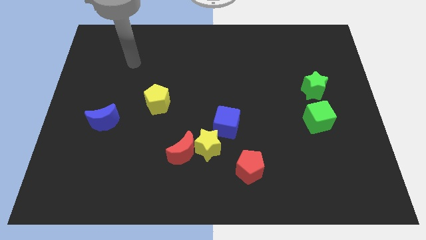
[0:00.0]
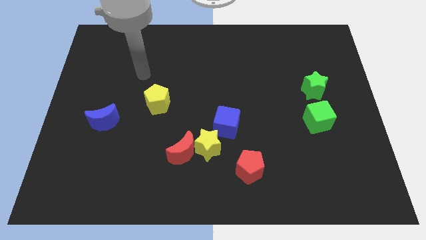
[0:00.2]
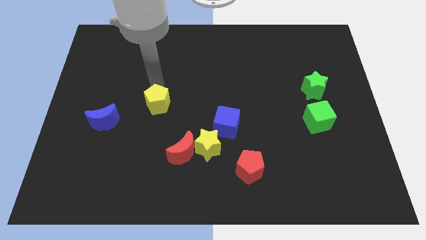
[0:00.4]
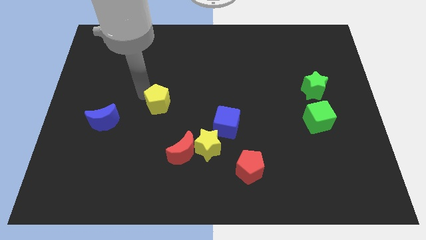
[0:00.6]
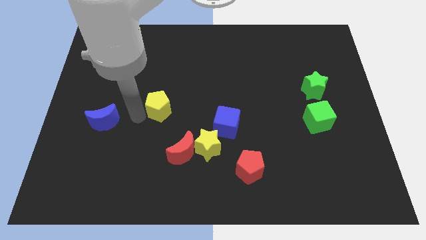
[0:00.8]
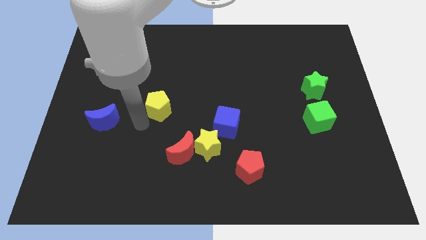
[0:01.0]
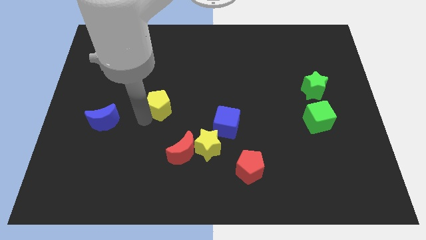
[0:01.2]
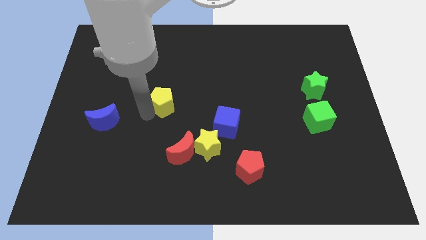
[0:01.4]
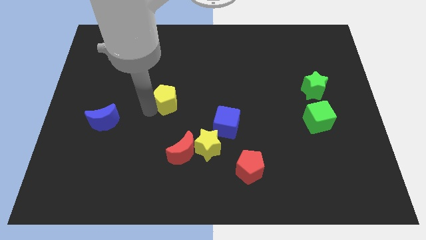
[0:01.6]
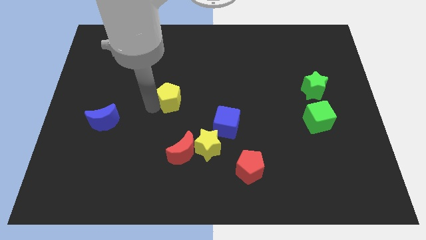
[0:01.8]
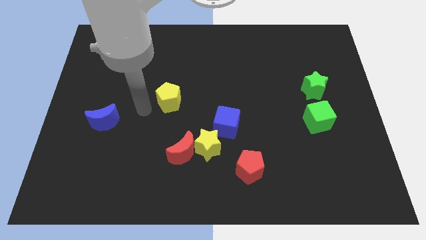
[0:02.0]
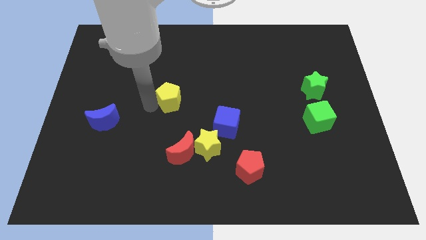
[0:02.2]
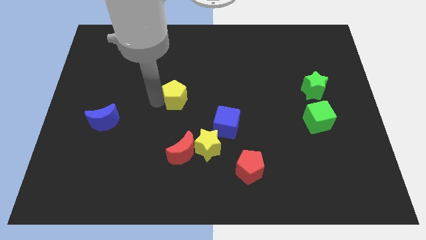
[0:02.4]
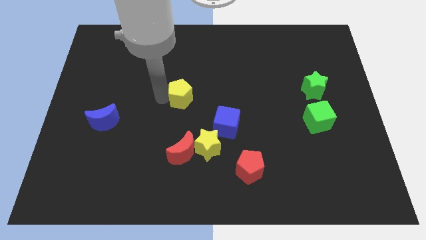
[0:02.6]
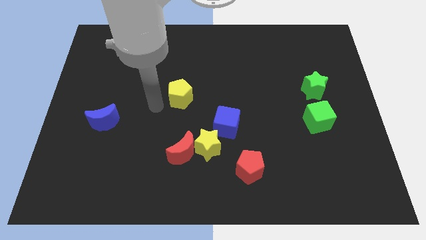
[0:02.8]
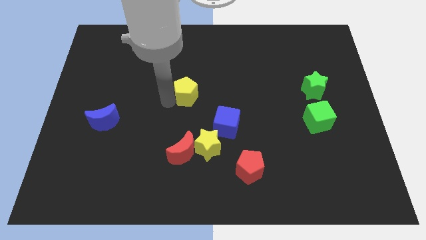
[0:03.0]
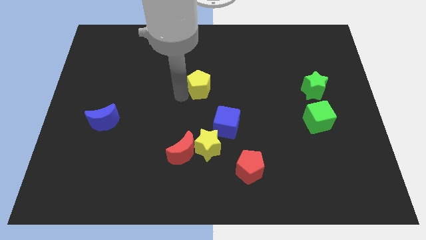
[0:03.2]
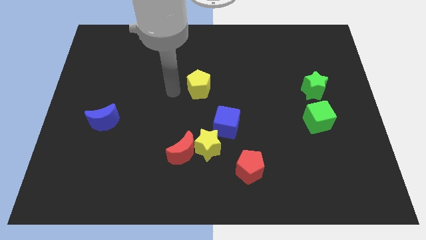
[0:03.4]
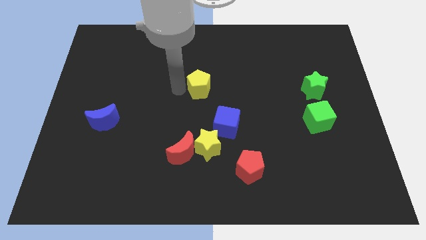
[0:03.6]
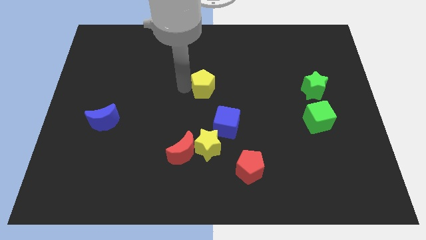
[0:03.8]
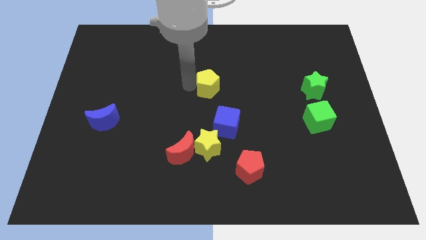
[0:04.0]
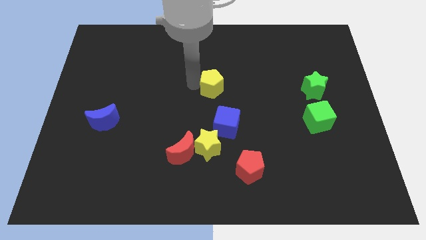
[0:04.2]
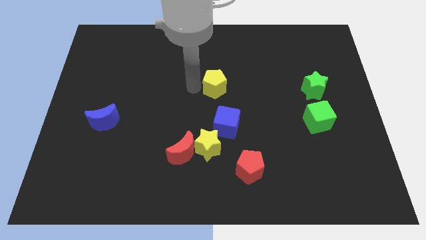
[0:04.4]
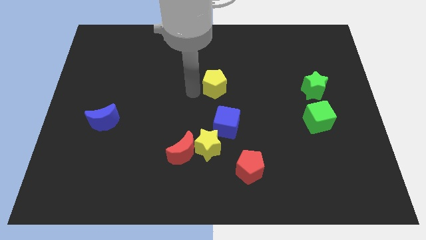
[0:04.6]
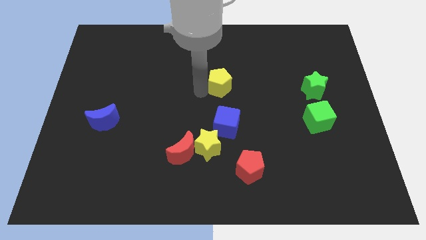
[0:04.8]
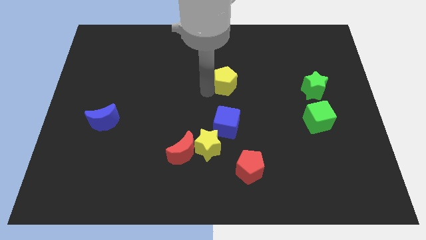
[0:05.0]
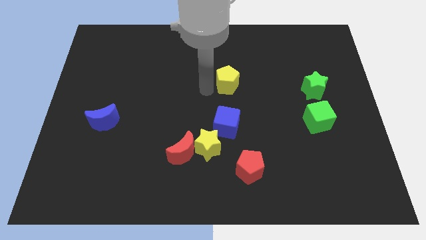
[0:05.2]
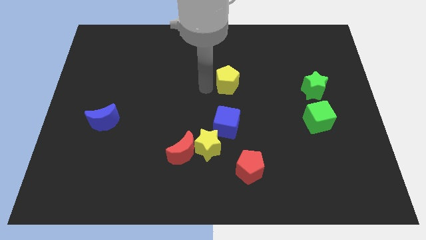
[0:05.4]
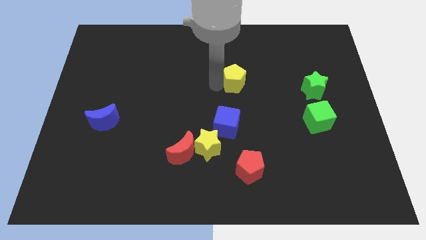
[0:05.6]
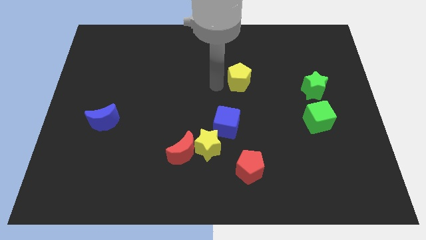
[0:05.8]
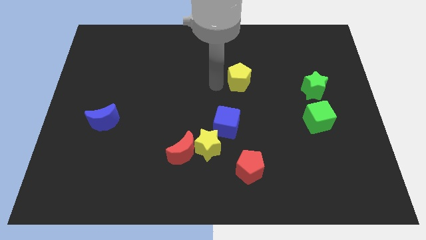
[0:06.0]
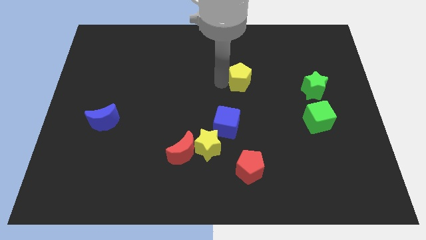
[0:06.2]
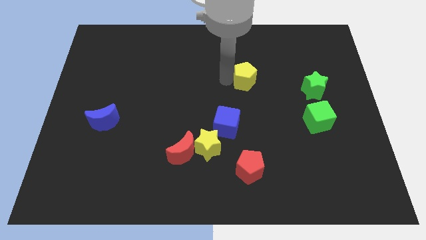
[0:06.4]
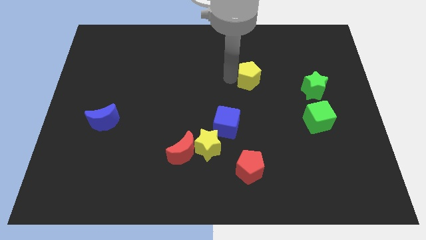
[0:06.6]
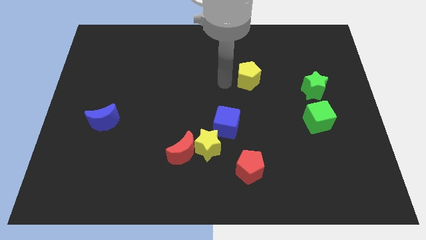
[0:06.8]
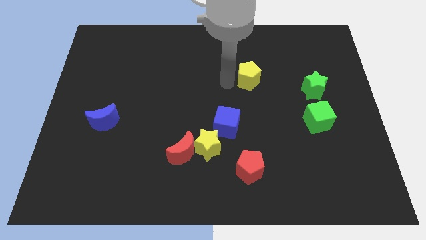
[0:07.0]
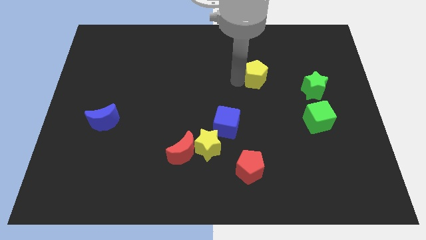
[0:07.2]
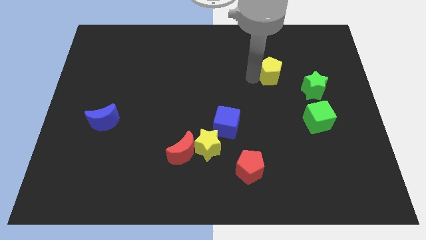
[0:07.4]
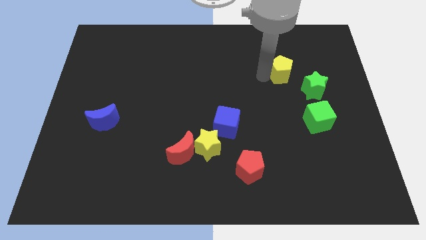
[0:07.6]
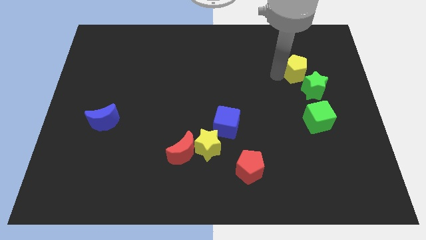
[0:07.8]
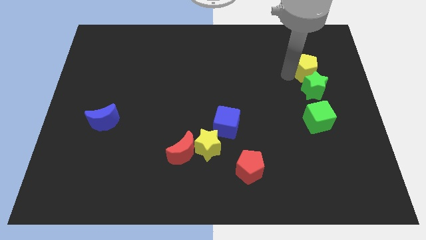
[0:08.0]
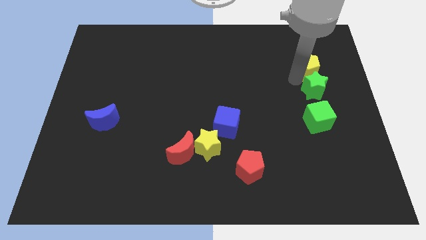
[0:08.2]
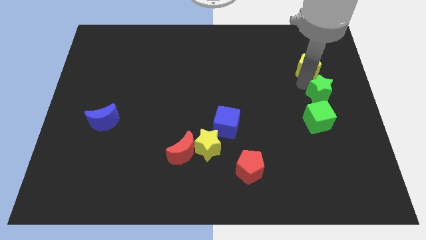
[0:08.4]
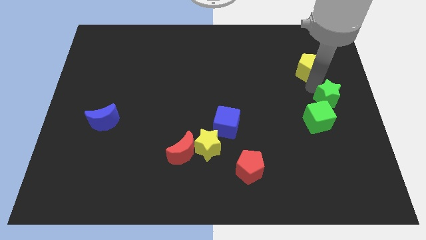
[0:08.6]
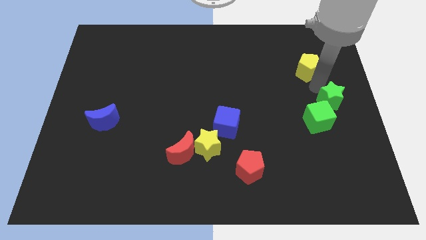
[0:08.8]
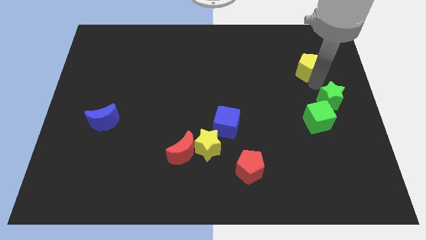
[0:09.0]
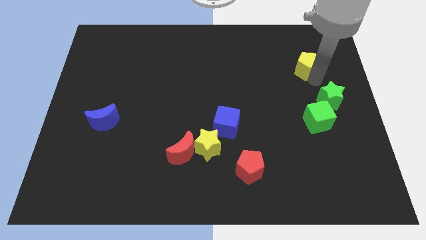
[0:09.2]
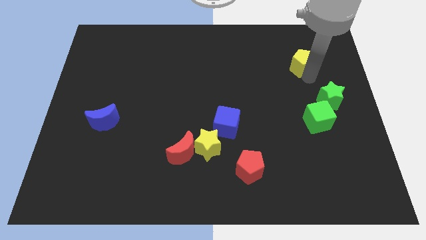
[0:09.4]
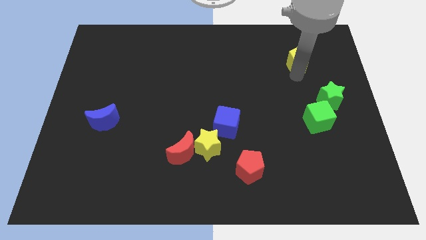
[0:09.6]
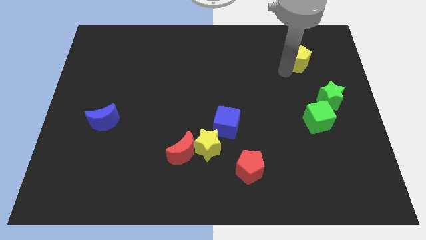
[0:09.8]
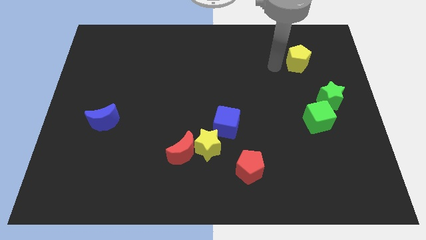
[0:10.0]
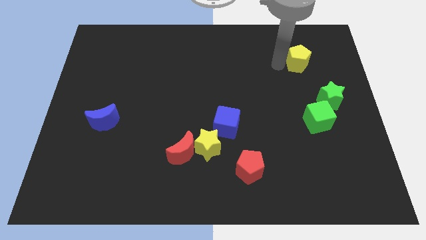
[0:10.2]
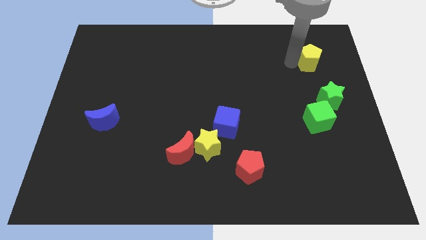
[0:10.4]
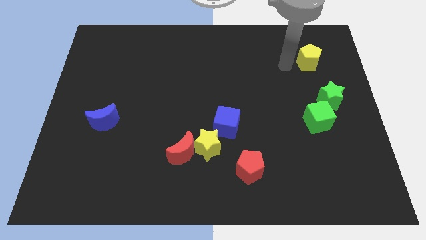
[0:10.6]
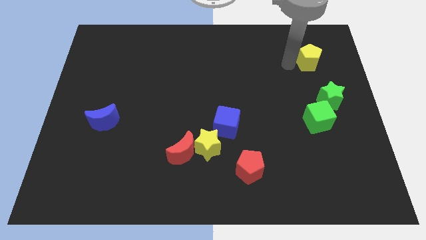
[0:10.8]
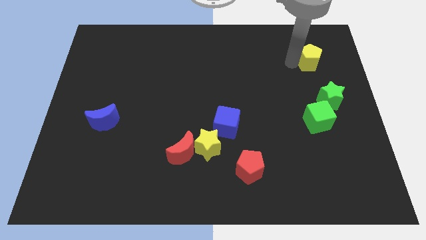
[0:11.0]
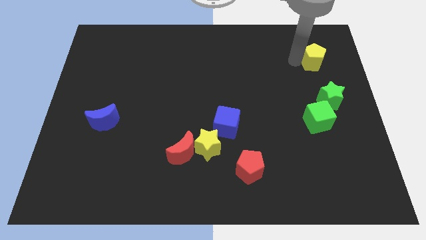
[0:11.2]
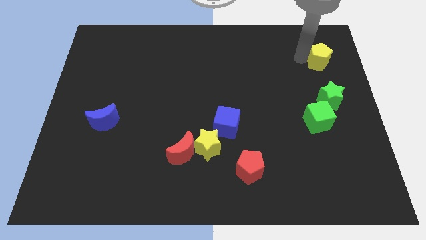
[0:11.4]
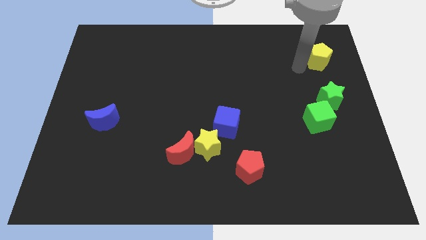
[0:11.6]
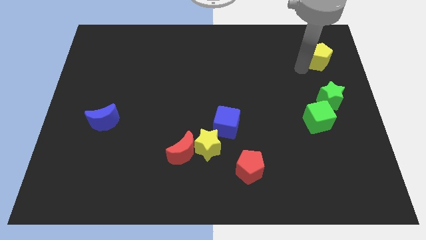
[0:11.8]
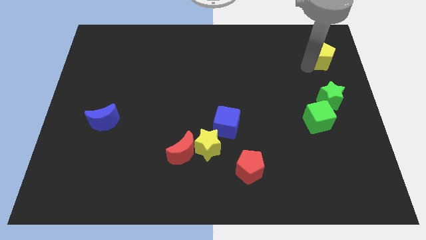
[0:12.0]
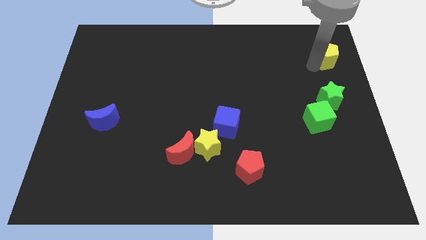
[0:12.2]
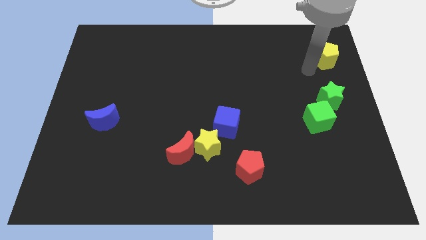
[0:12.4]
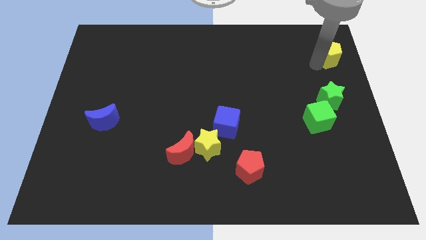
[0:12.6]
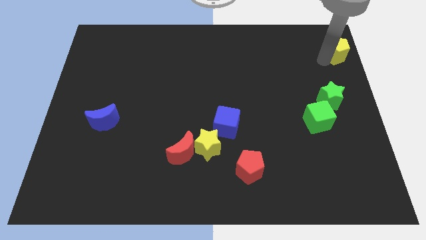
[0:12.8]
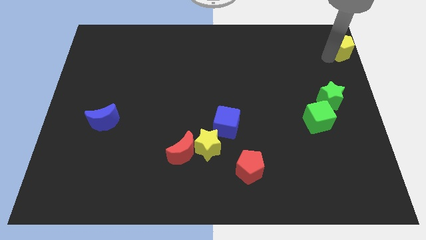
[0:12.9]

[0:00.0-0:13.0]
move the yellow pentagon to the top right corner

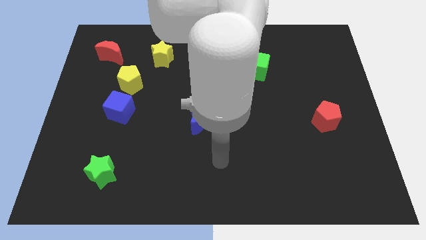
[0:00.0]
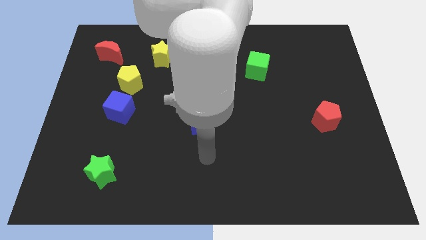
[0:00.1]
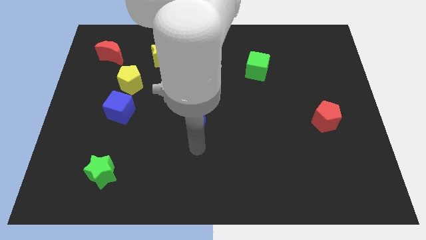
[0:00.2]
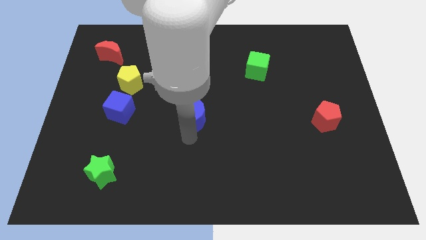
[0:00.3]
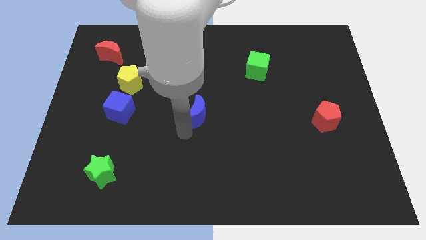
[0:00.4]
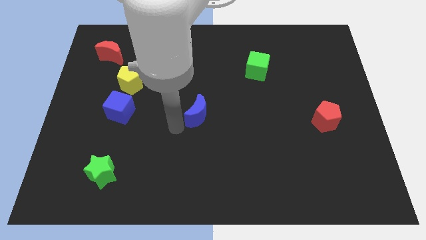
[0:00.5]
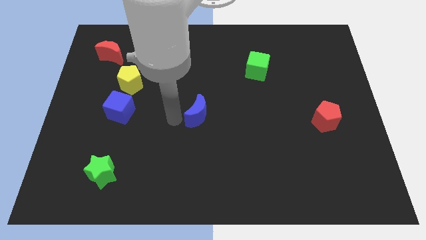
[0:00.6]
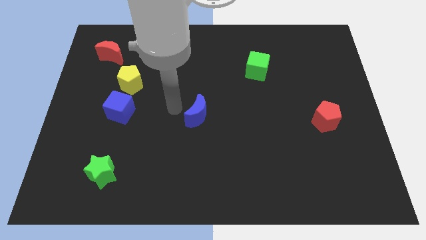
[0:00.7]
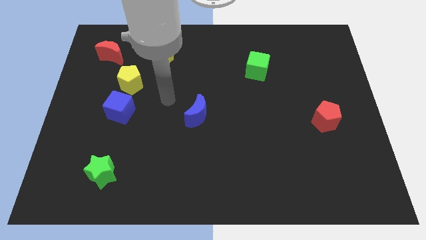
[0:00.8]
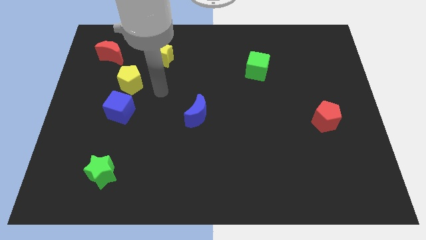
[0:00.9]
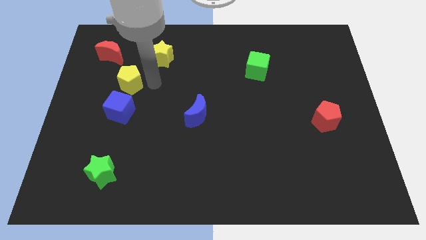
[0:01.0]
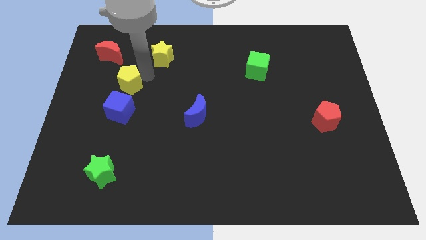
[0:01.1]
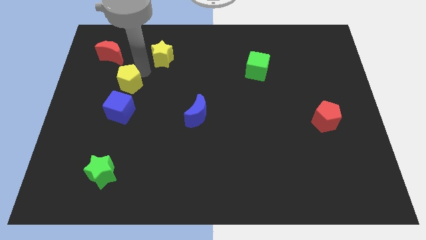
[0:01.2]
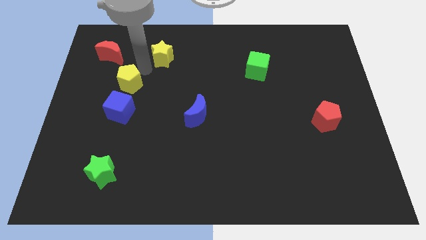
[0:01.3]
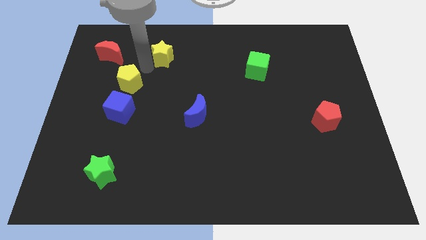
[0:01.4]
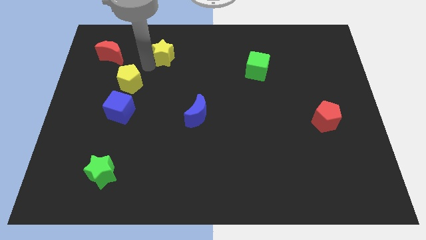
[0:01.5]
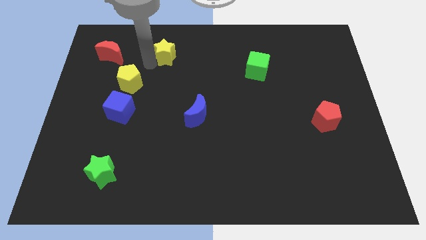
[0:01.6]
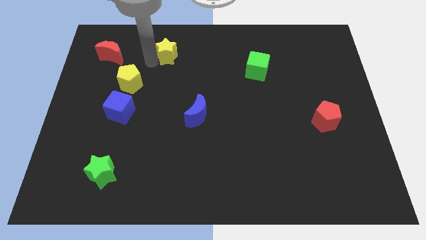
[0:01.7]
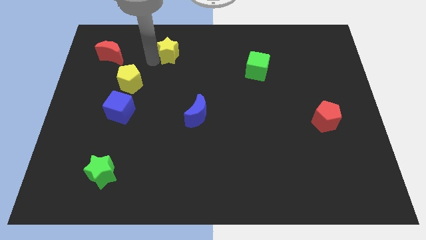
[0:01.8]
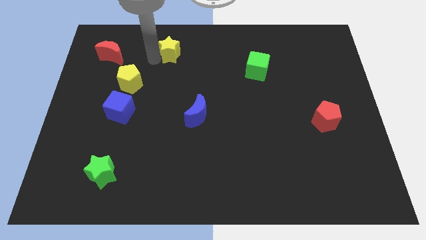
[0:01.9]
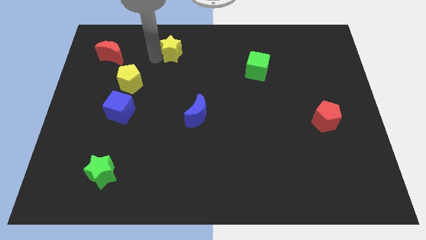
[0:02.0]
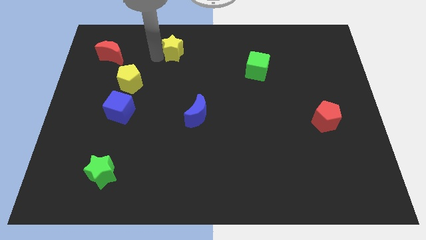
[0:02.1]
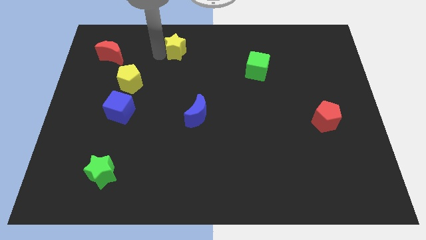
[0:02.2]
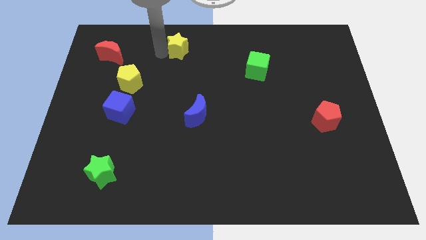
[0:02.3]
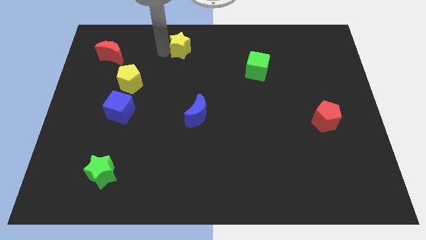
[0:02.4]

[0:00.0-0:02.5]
move the yellow star to the top
